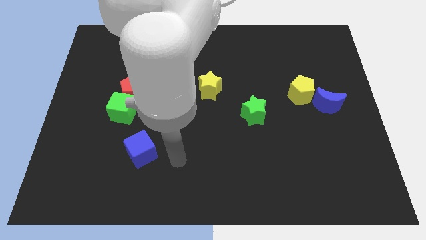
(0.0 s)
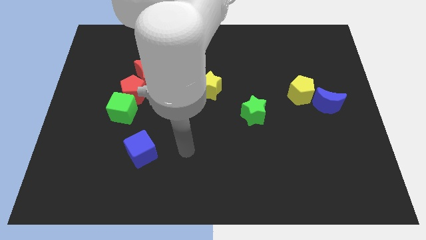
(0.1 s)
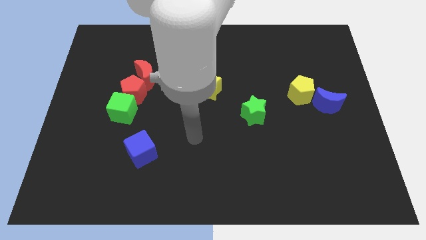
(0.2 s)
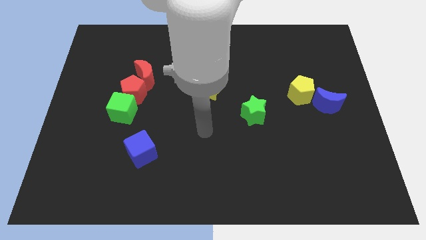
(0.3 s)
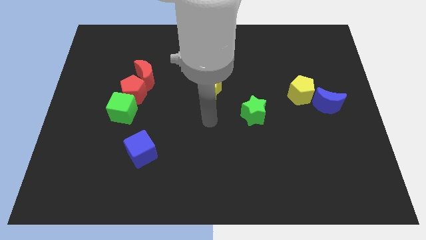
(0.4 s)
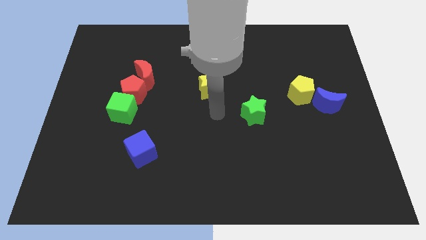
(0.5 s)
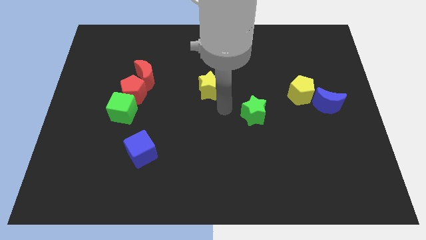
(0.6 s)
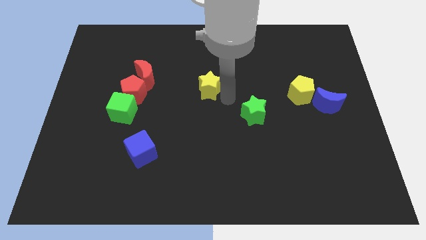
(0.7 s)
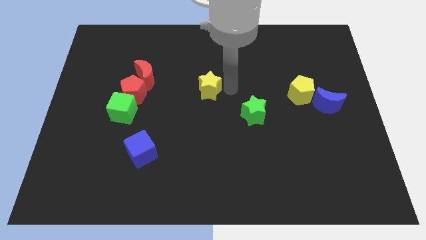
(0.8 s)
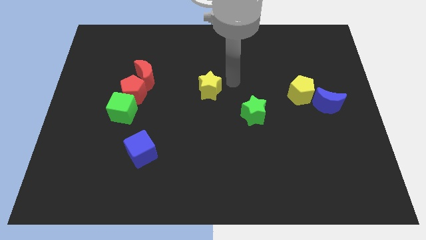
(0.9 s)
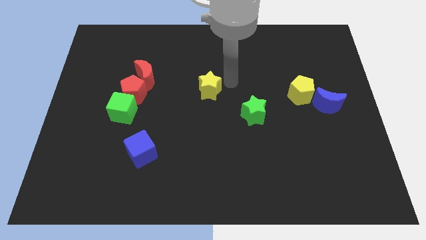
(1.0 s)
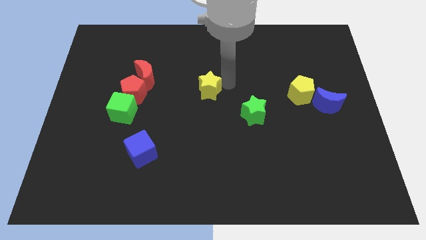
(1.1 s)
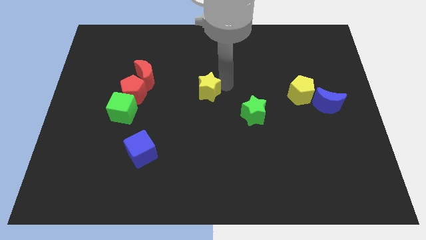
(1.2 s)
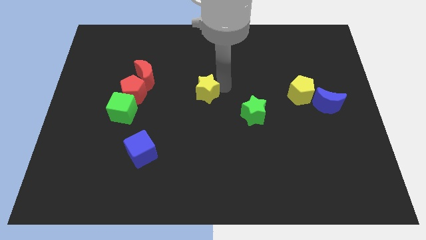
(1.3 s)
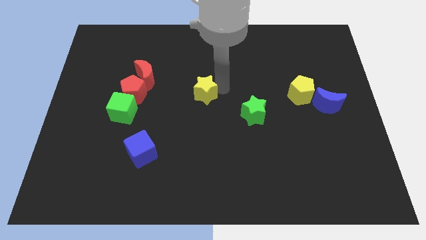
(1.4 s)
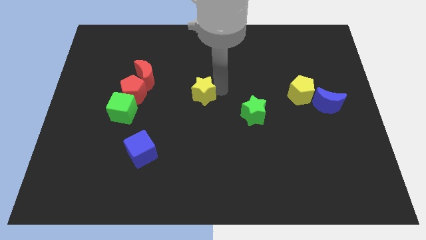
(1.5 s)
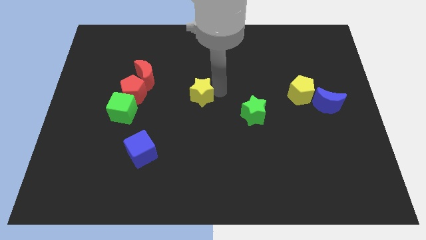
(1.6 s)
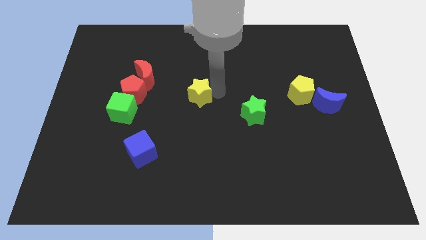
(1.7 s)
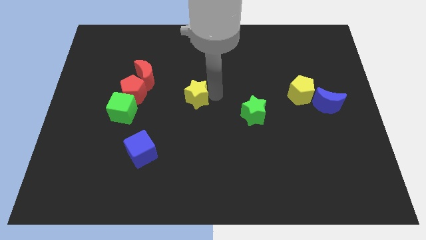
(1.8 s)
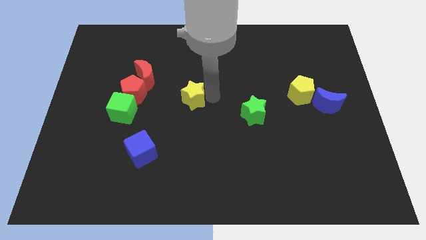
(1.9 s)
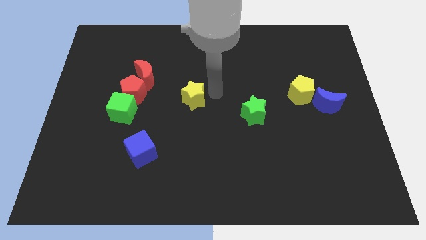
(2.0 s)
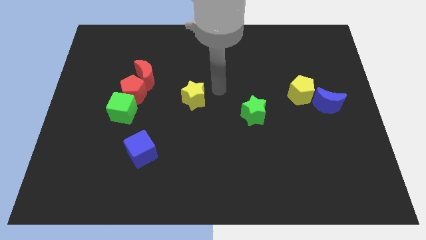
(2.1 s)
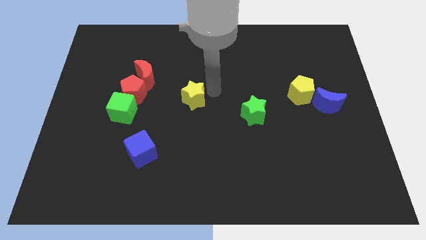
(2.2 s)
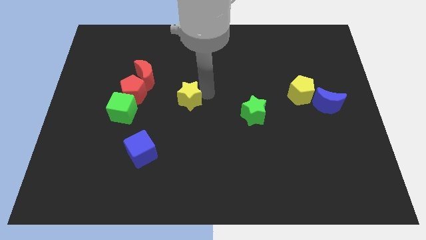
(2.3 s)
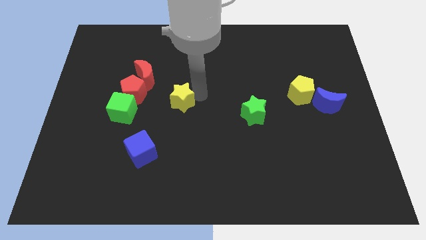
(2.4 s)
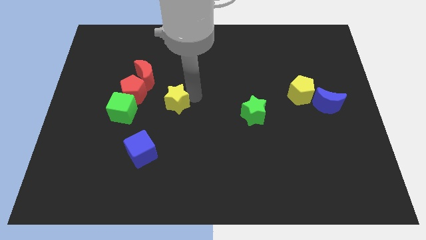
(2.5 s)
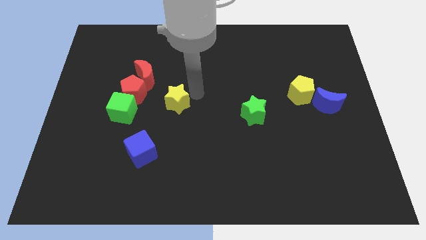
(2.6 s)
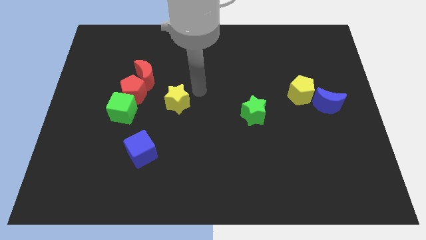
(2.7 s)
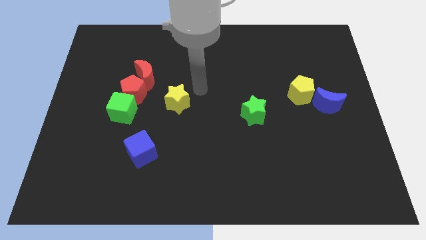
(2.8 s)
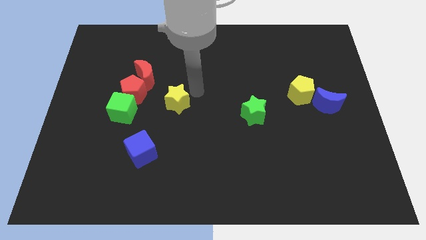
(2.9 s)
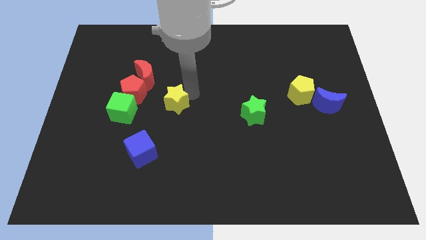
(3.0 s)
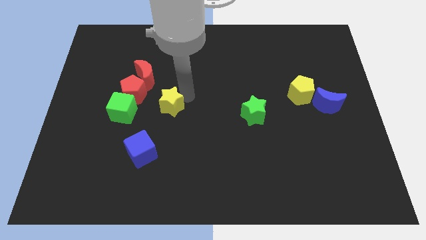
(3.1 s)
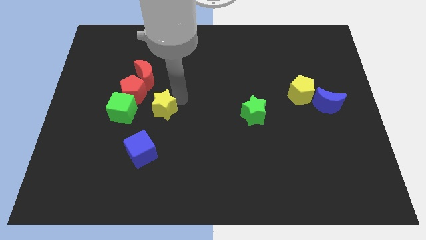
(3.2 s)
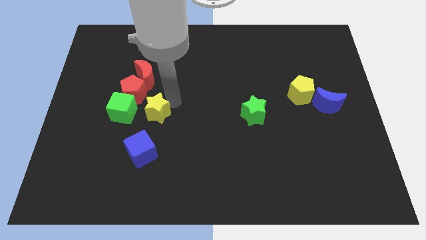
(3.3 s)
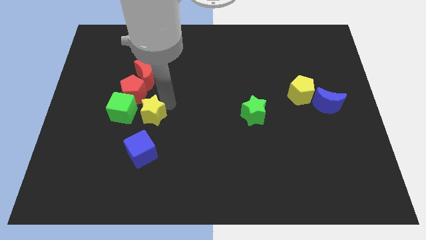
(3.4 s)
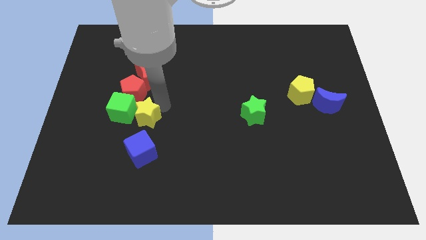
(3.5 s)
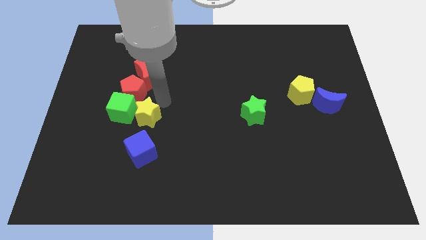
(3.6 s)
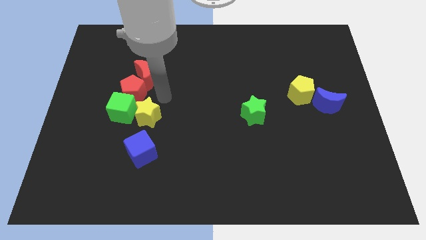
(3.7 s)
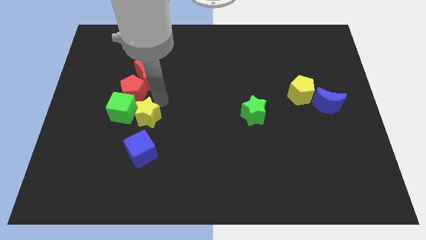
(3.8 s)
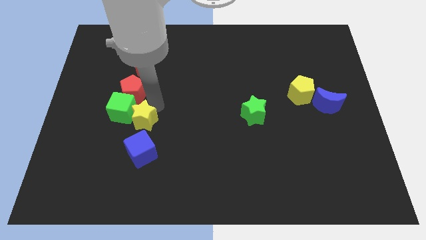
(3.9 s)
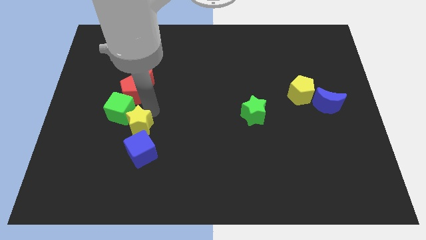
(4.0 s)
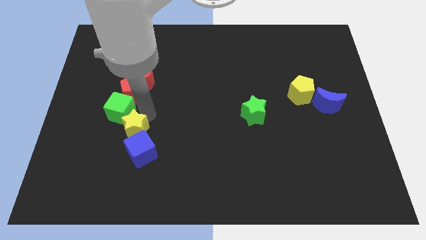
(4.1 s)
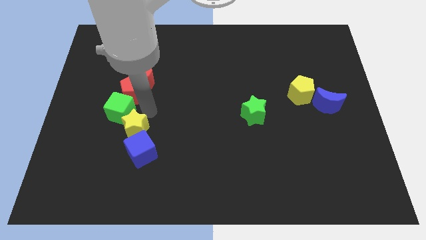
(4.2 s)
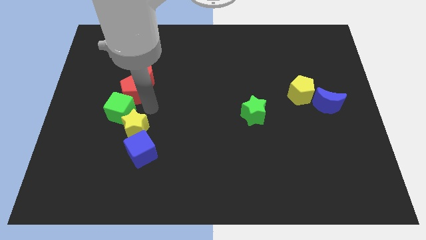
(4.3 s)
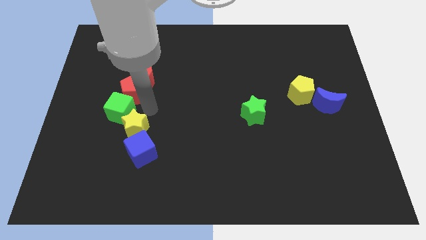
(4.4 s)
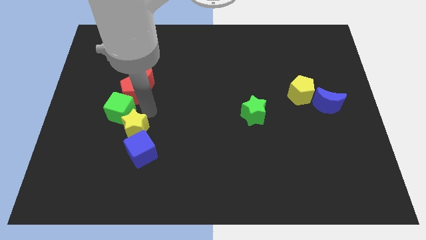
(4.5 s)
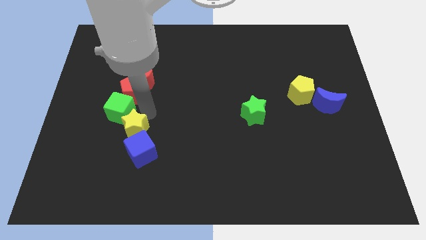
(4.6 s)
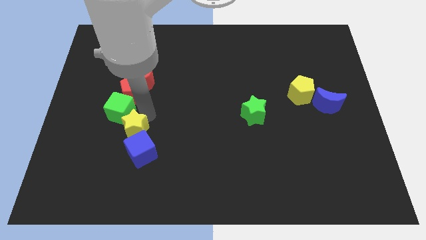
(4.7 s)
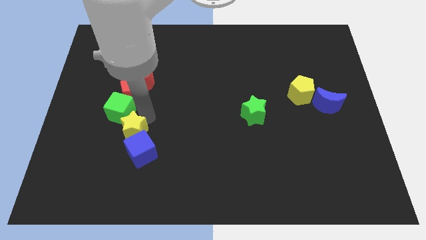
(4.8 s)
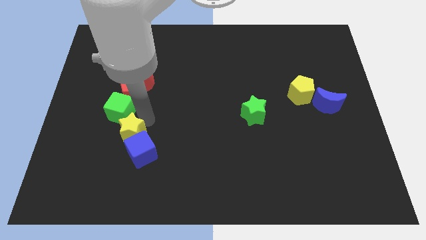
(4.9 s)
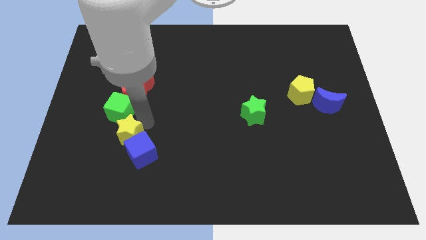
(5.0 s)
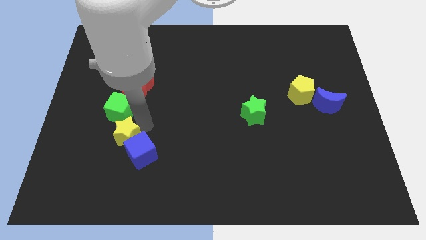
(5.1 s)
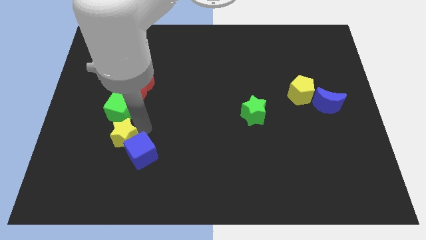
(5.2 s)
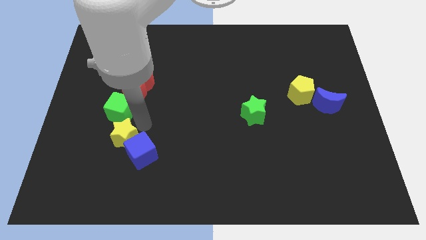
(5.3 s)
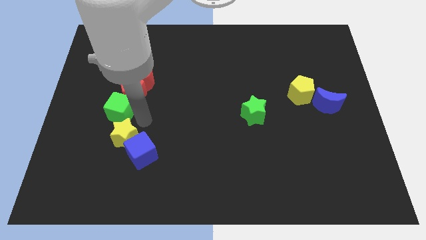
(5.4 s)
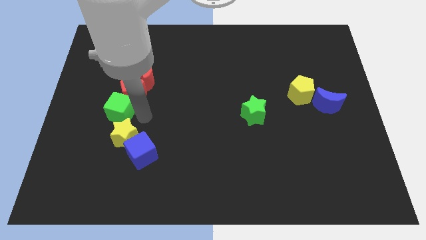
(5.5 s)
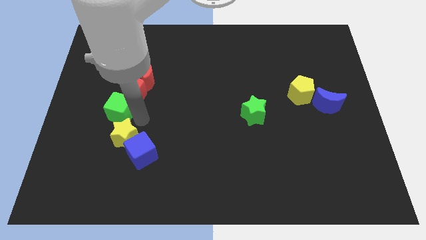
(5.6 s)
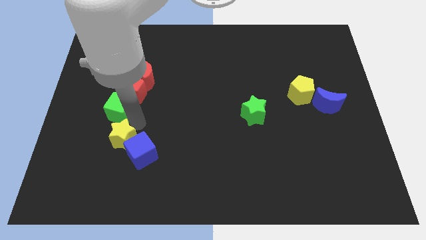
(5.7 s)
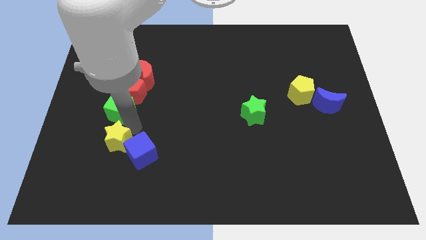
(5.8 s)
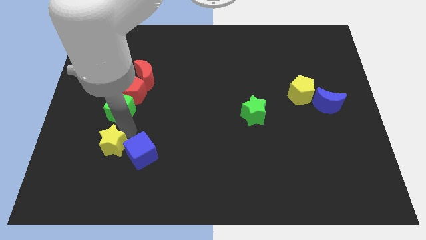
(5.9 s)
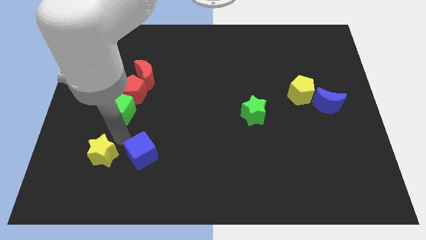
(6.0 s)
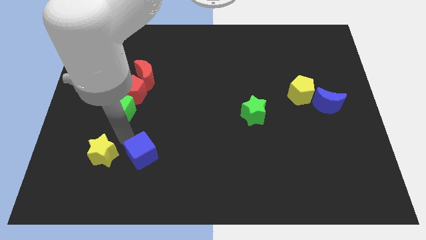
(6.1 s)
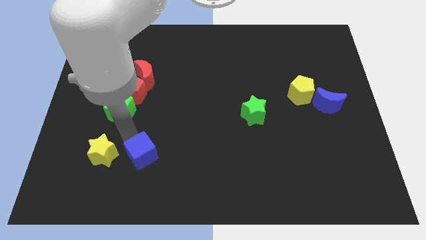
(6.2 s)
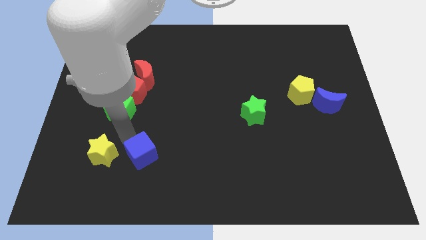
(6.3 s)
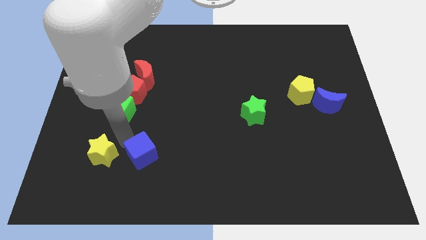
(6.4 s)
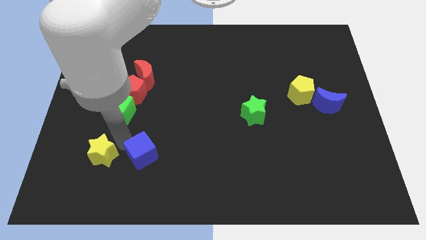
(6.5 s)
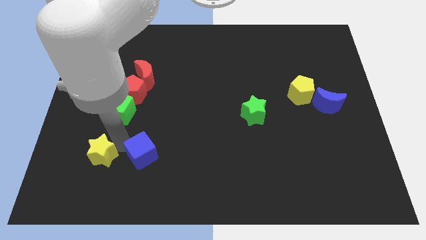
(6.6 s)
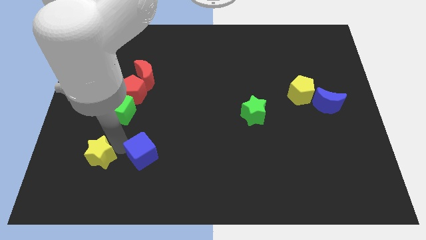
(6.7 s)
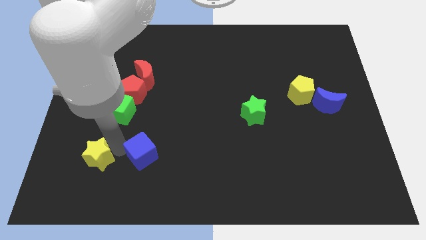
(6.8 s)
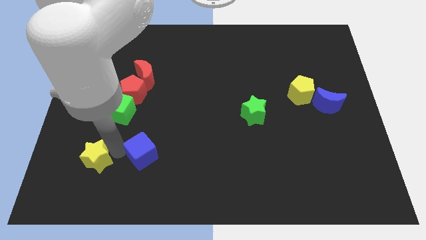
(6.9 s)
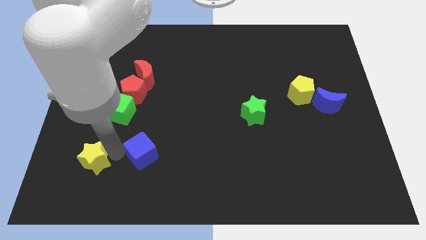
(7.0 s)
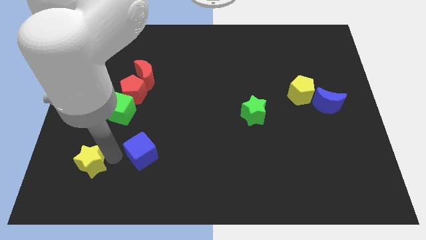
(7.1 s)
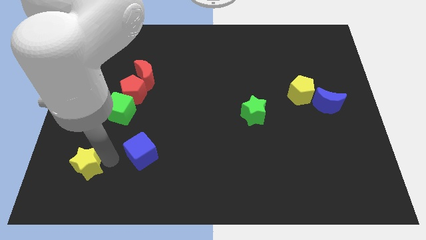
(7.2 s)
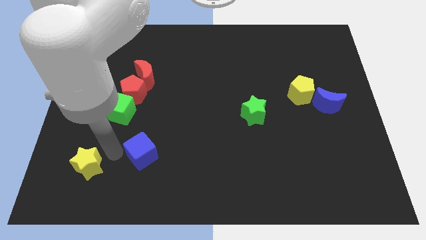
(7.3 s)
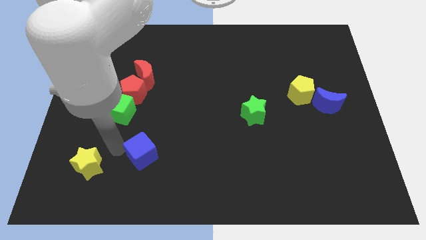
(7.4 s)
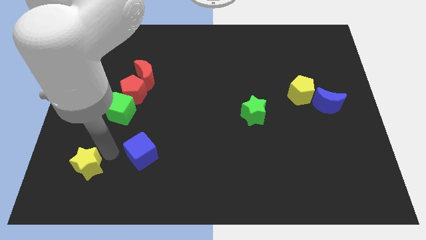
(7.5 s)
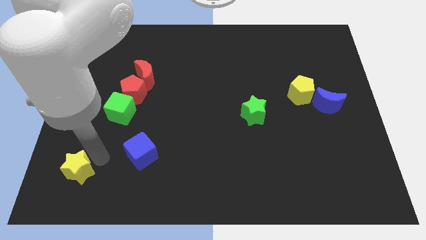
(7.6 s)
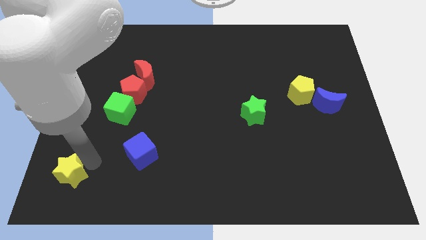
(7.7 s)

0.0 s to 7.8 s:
move the yellow star to the bottom left corner
